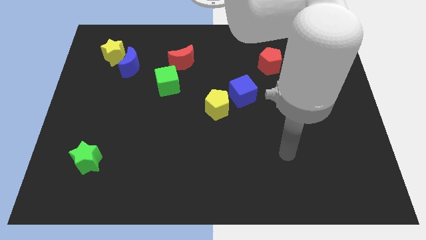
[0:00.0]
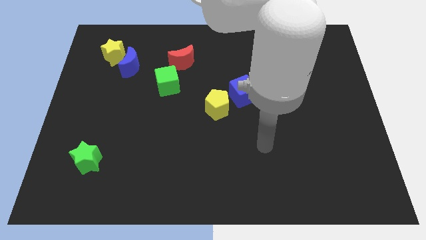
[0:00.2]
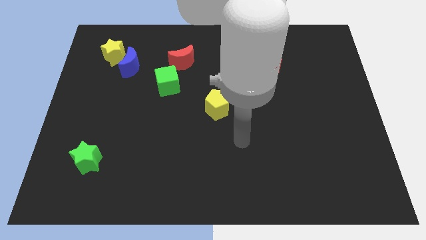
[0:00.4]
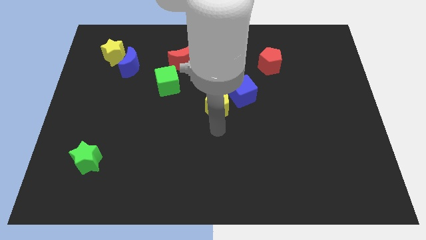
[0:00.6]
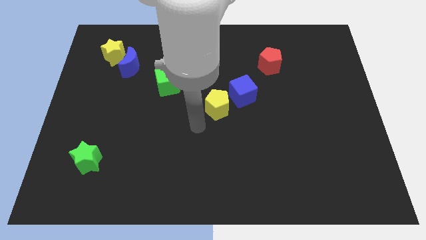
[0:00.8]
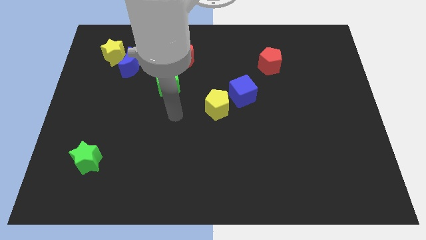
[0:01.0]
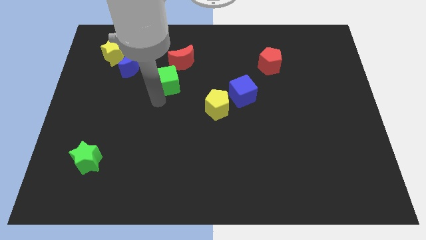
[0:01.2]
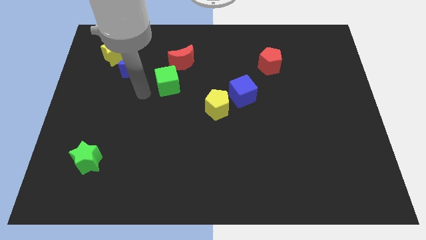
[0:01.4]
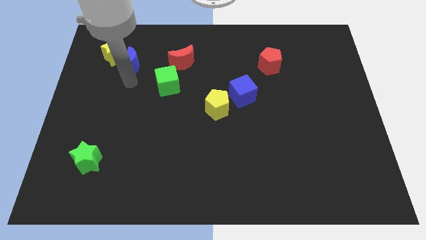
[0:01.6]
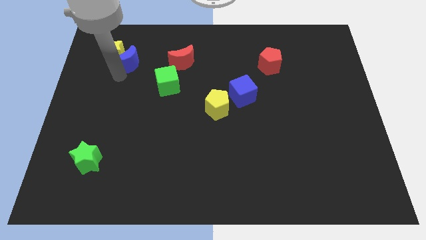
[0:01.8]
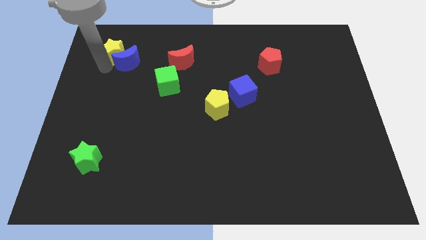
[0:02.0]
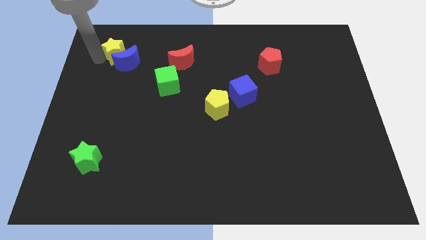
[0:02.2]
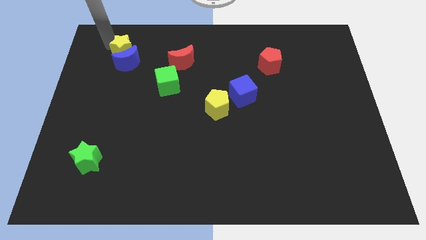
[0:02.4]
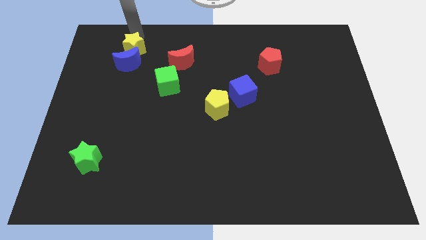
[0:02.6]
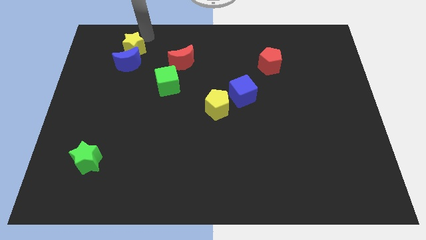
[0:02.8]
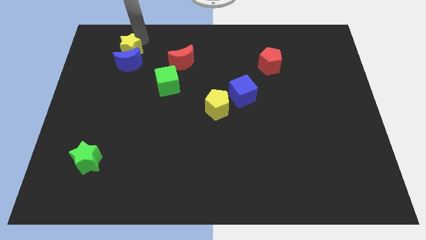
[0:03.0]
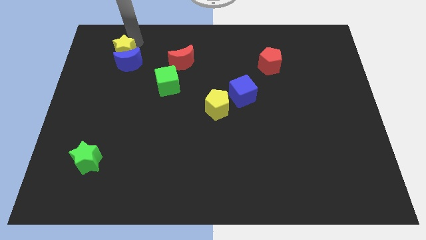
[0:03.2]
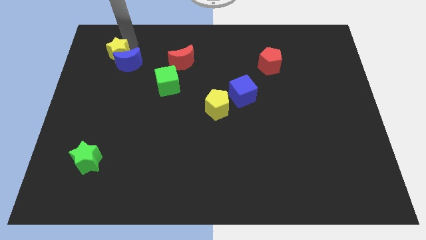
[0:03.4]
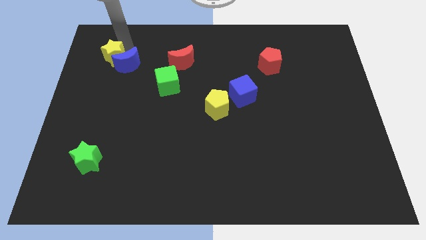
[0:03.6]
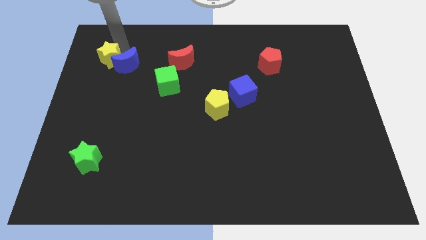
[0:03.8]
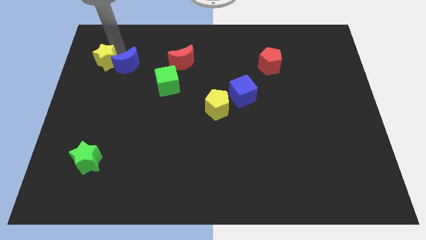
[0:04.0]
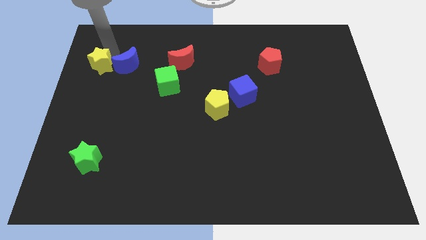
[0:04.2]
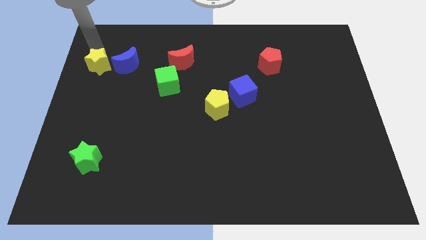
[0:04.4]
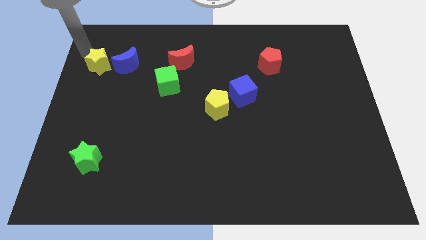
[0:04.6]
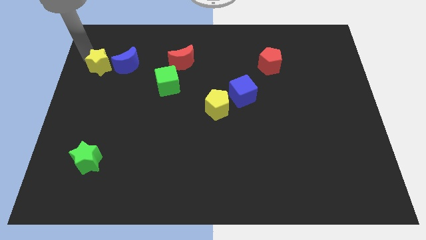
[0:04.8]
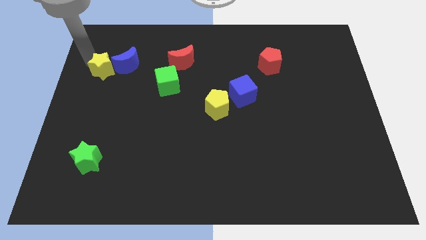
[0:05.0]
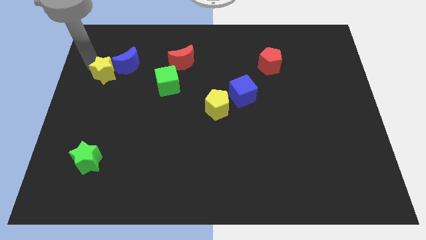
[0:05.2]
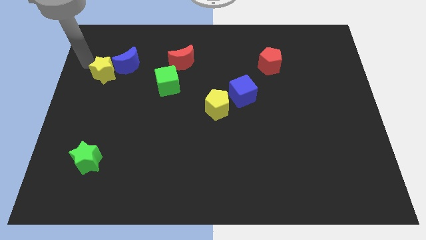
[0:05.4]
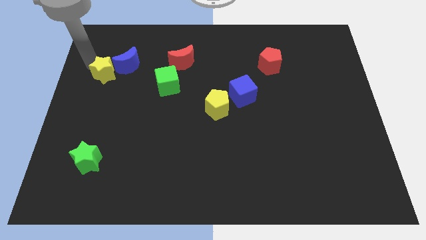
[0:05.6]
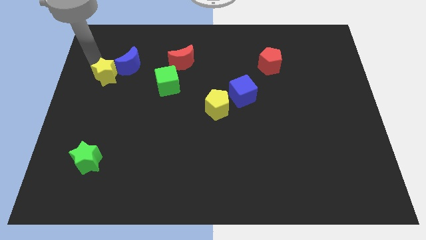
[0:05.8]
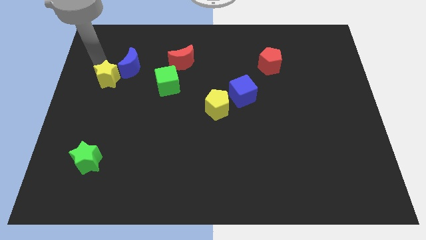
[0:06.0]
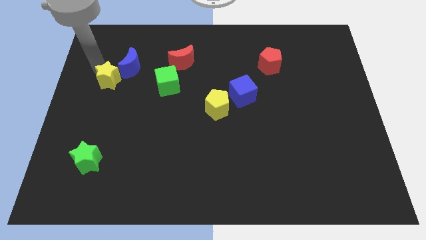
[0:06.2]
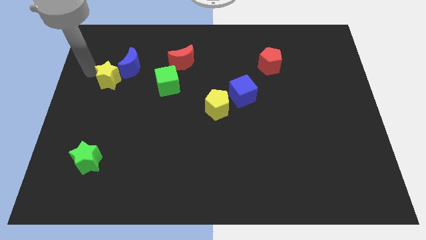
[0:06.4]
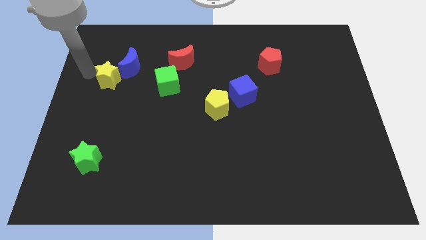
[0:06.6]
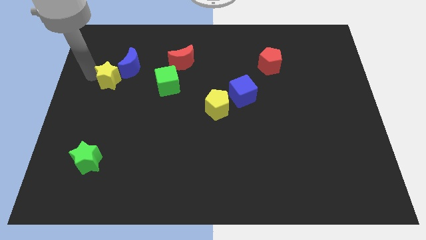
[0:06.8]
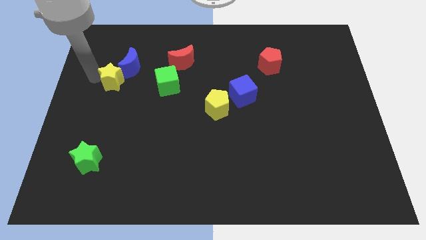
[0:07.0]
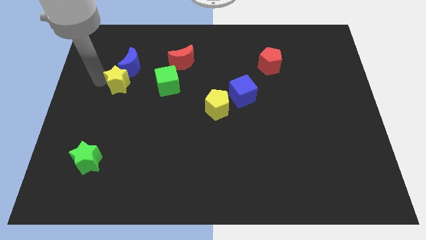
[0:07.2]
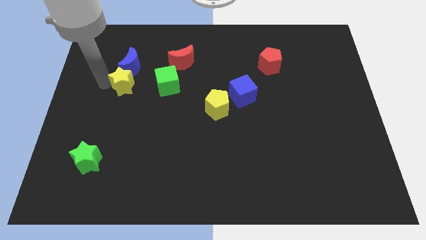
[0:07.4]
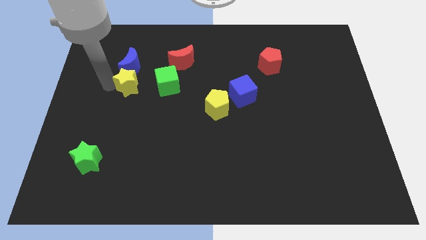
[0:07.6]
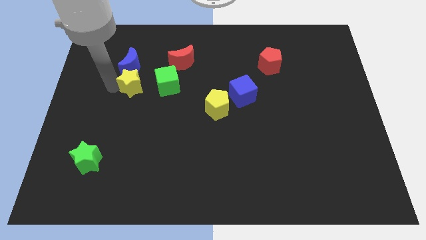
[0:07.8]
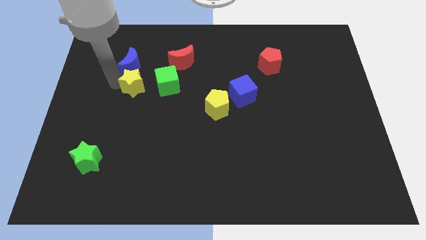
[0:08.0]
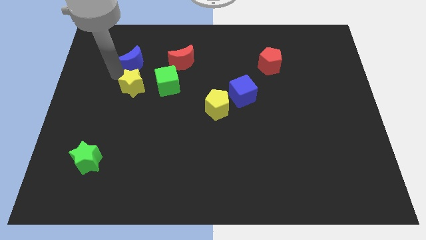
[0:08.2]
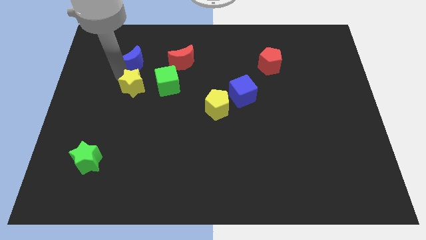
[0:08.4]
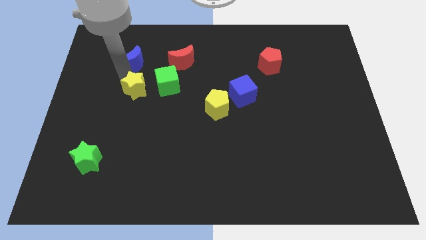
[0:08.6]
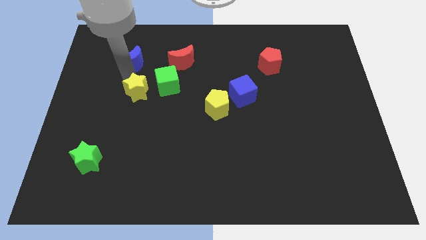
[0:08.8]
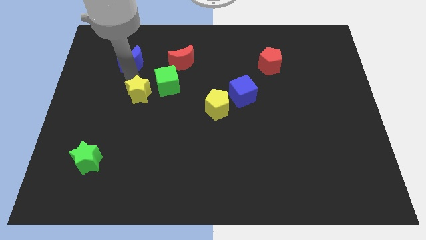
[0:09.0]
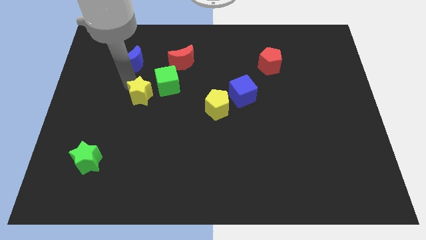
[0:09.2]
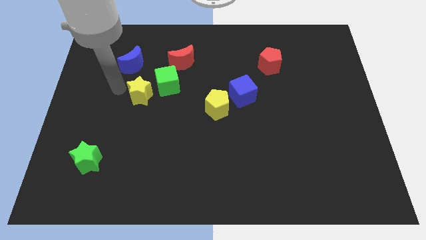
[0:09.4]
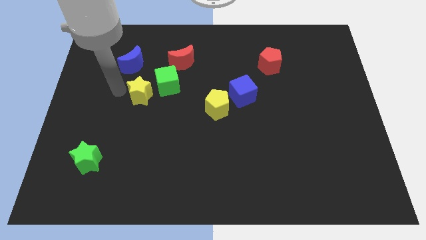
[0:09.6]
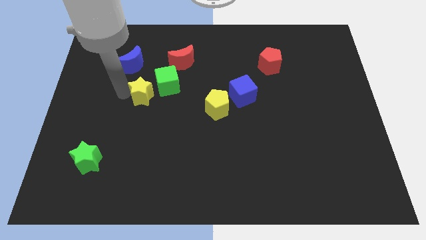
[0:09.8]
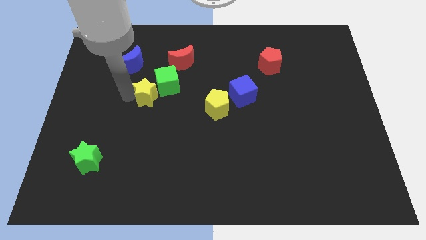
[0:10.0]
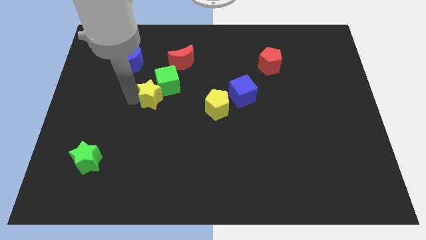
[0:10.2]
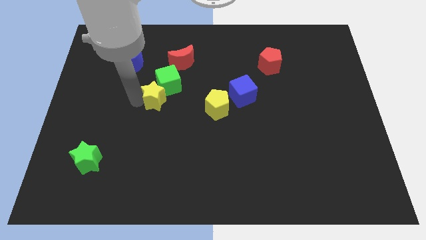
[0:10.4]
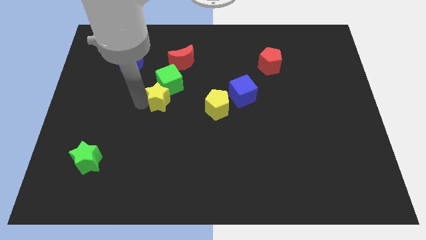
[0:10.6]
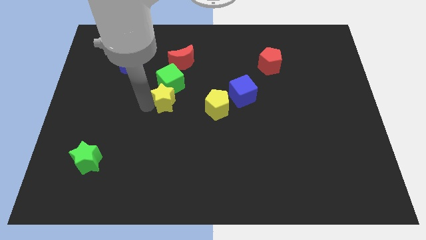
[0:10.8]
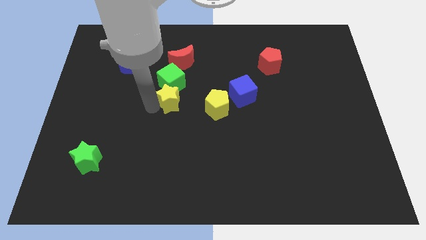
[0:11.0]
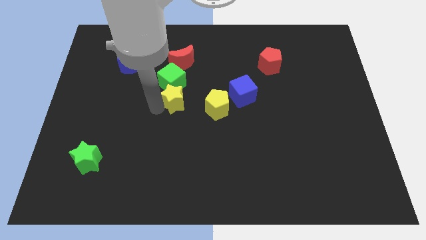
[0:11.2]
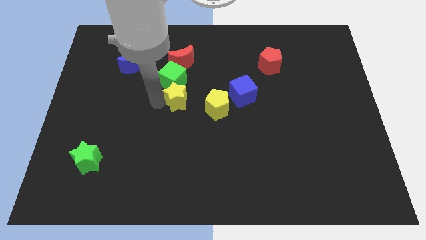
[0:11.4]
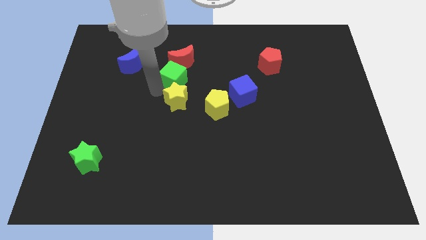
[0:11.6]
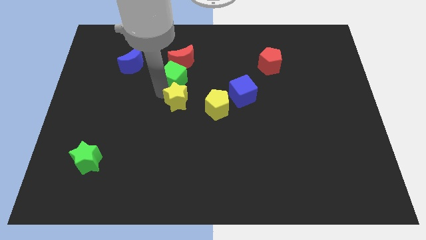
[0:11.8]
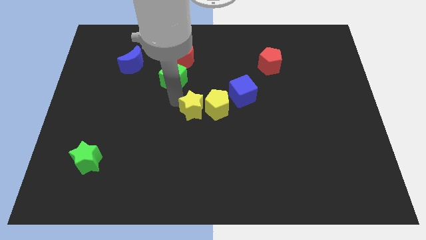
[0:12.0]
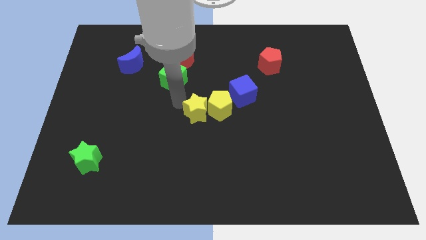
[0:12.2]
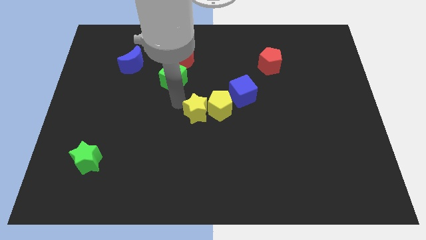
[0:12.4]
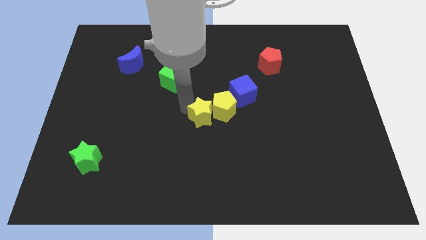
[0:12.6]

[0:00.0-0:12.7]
move the yellow star to the bottom left side of the blue cube

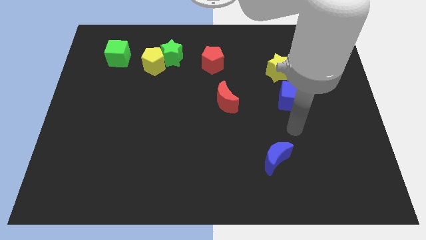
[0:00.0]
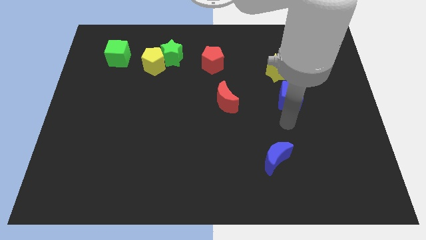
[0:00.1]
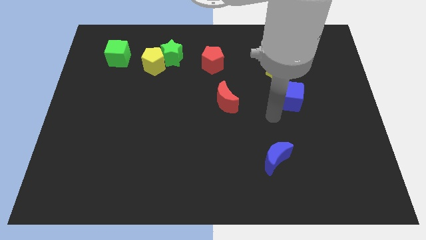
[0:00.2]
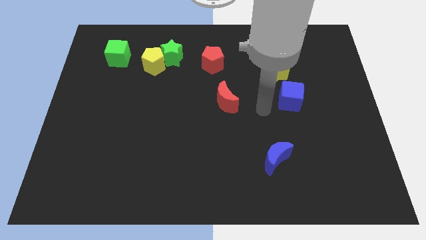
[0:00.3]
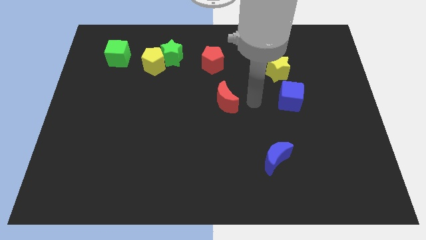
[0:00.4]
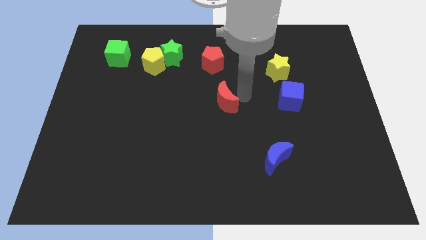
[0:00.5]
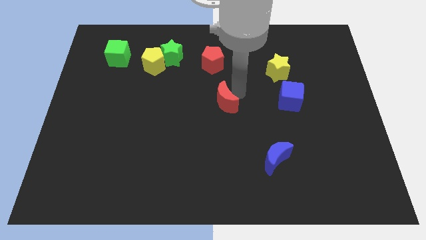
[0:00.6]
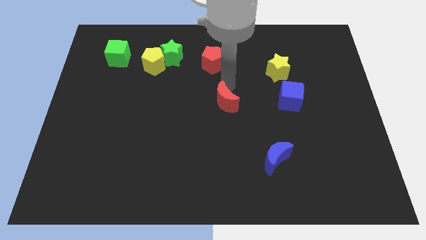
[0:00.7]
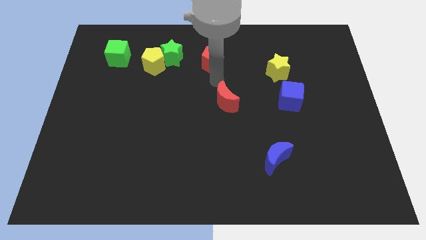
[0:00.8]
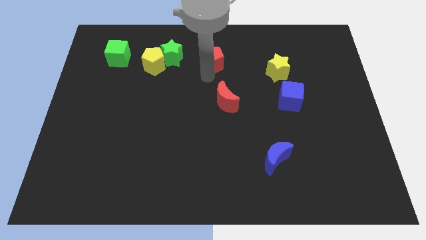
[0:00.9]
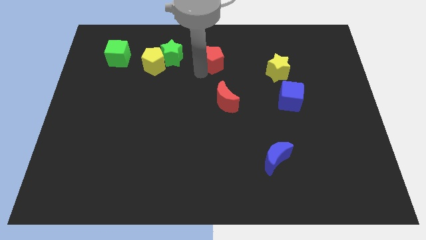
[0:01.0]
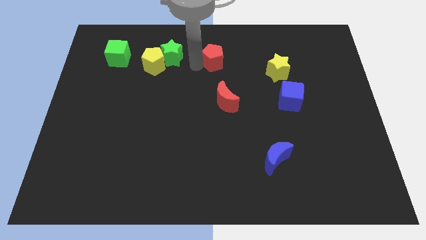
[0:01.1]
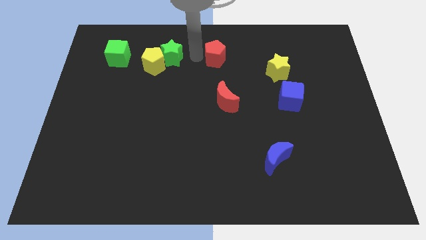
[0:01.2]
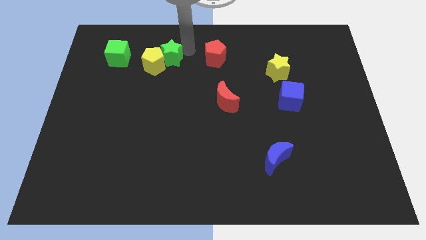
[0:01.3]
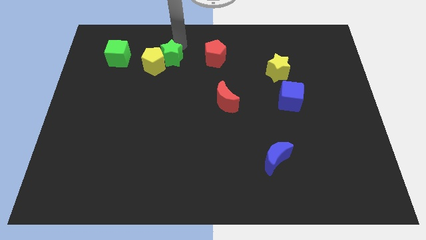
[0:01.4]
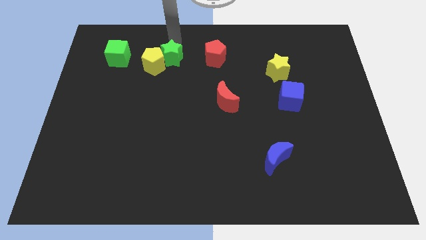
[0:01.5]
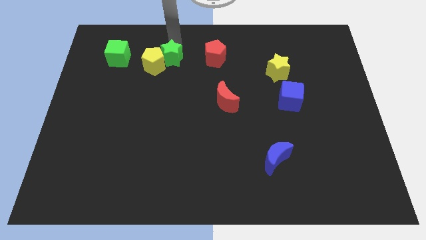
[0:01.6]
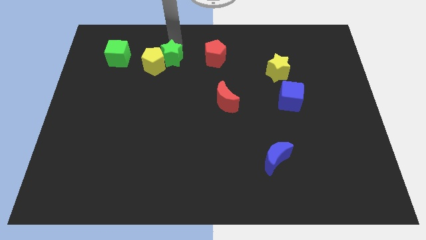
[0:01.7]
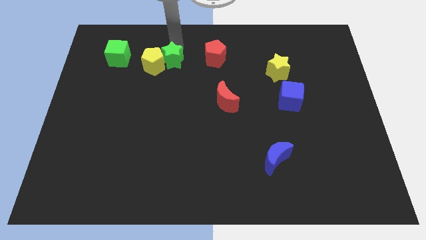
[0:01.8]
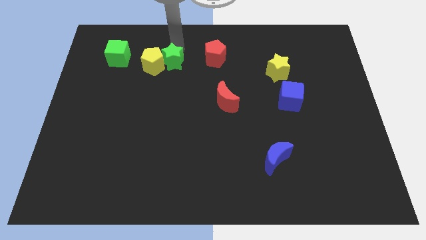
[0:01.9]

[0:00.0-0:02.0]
slide the green star to the bottom right of the yellow pentagon
